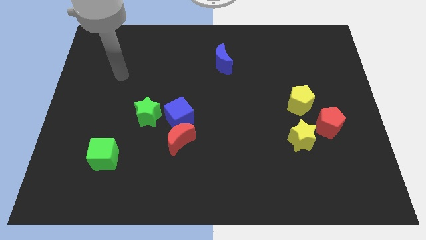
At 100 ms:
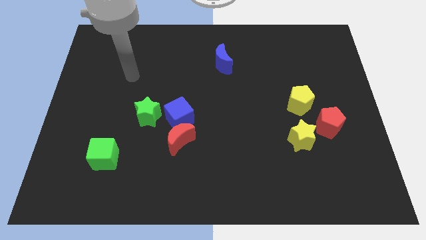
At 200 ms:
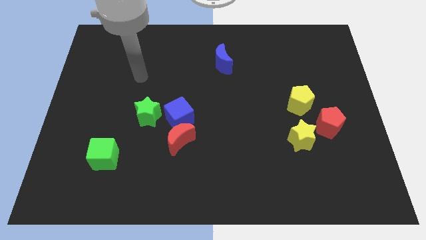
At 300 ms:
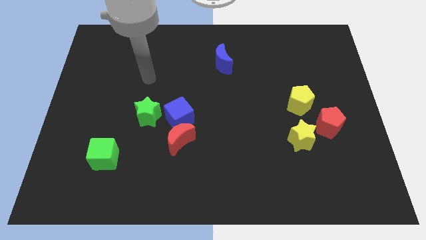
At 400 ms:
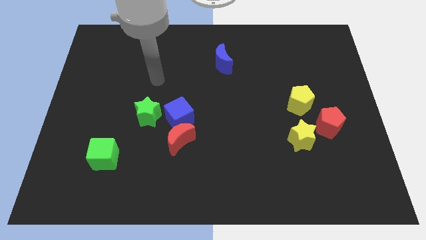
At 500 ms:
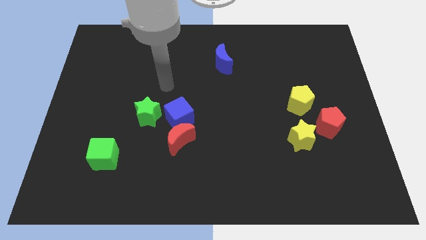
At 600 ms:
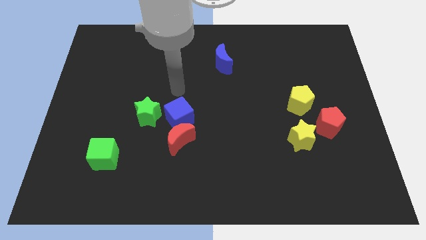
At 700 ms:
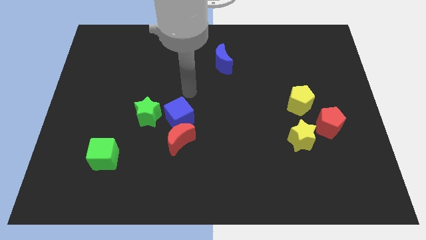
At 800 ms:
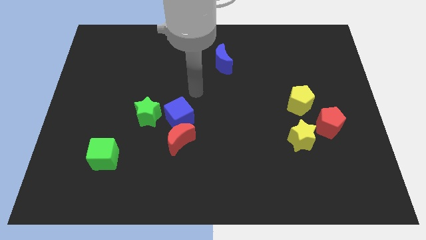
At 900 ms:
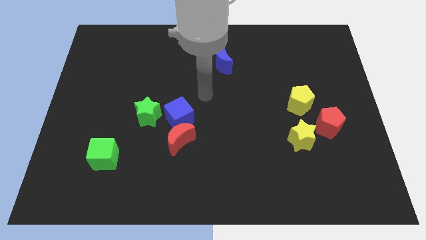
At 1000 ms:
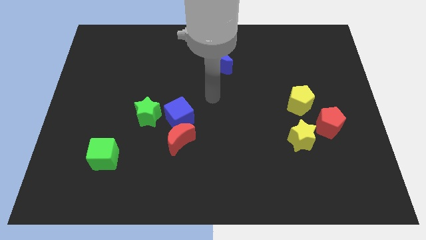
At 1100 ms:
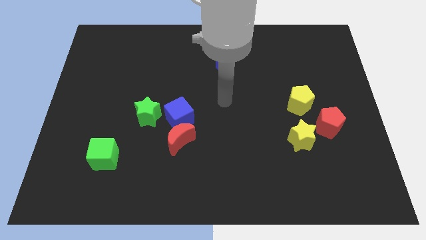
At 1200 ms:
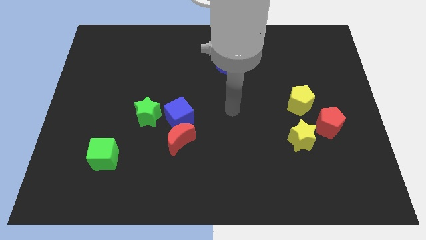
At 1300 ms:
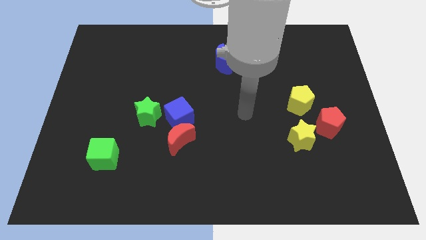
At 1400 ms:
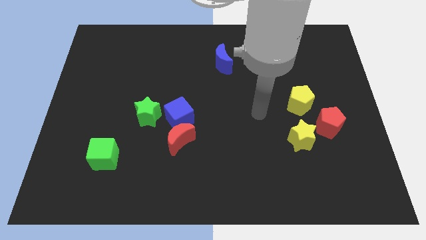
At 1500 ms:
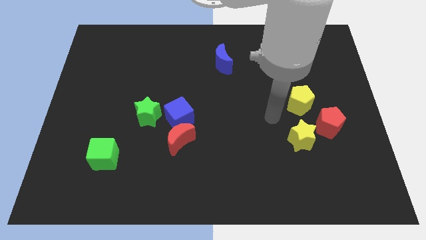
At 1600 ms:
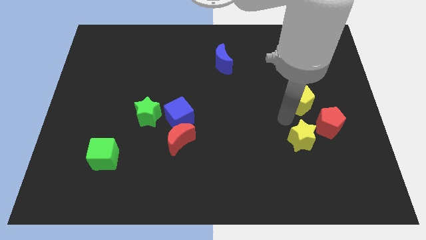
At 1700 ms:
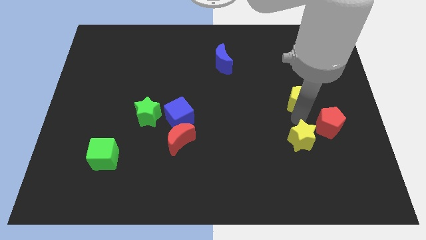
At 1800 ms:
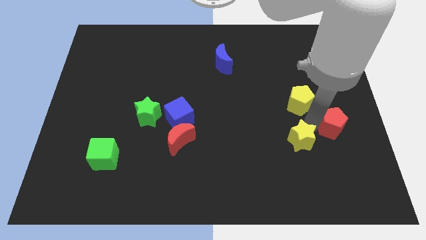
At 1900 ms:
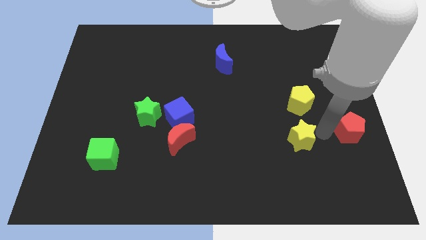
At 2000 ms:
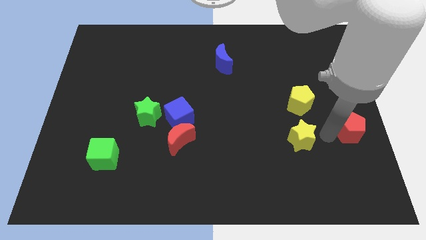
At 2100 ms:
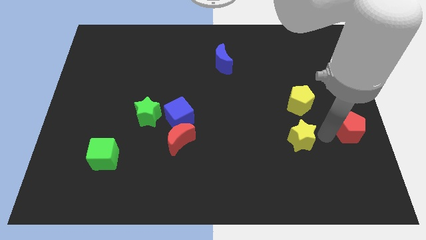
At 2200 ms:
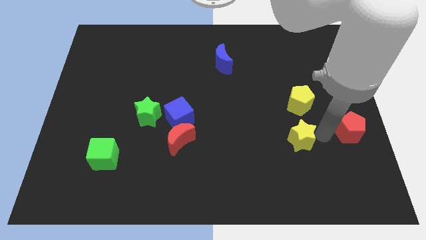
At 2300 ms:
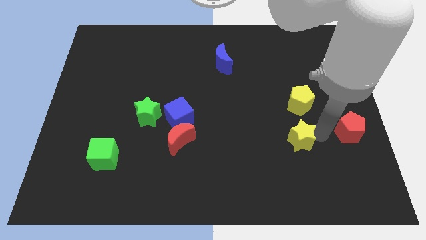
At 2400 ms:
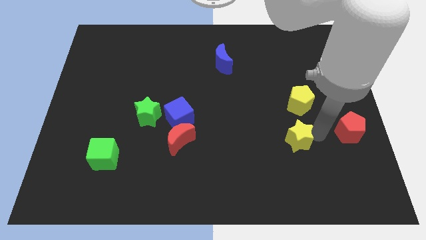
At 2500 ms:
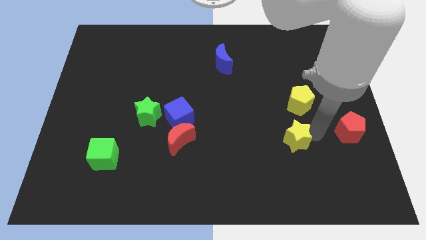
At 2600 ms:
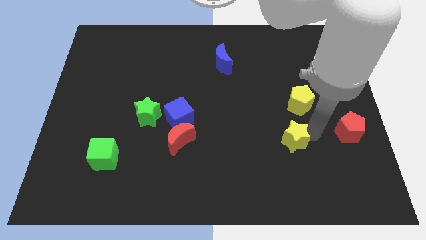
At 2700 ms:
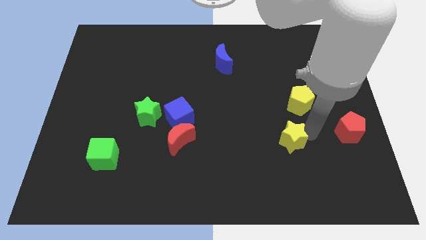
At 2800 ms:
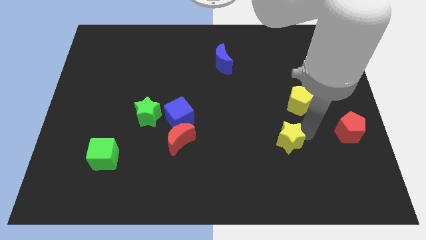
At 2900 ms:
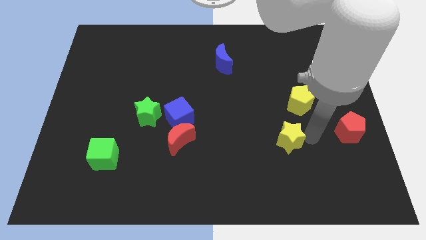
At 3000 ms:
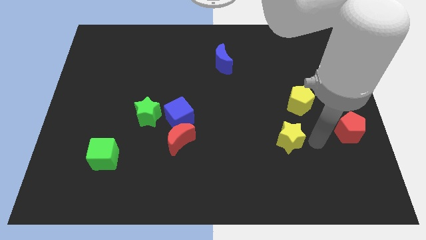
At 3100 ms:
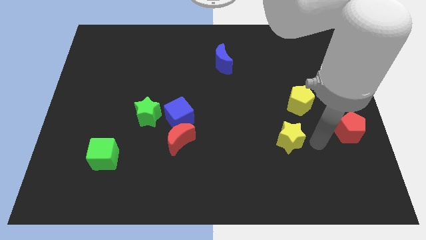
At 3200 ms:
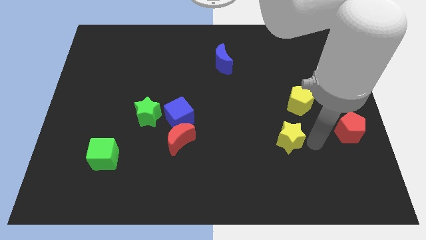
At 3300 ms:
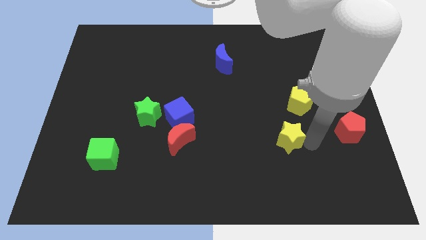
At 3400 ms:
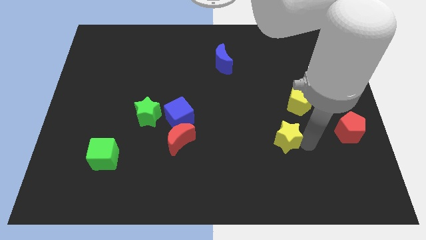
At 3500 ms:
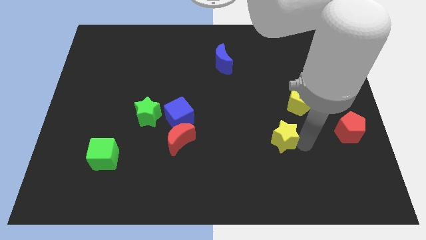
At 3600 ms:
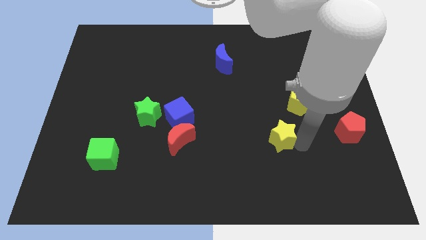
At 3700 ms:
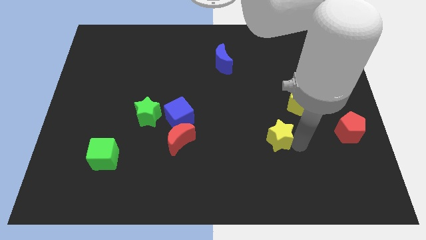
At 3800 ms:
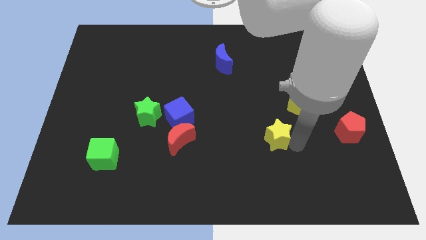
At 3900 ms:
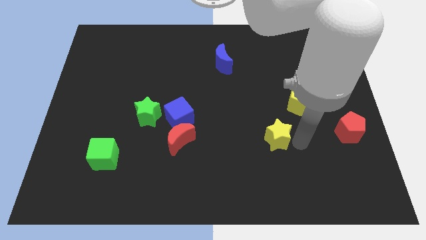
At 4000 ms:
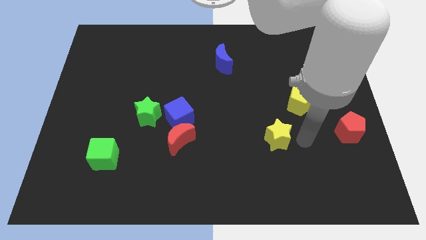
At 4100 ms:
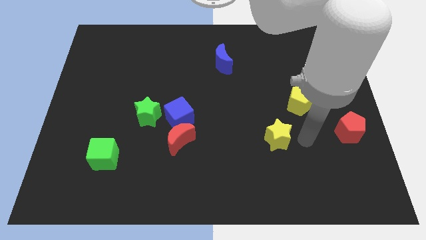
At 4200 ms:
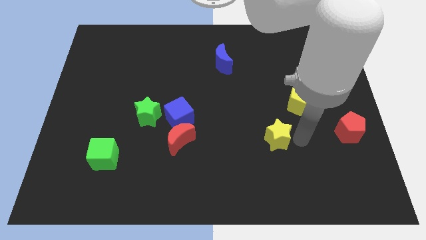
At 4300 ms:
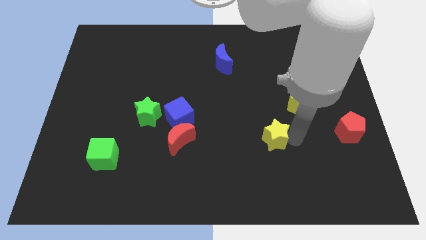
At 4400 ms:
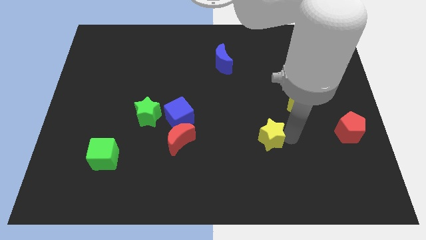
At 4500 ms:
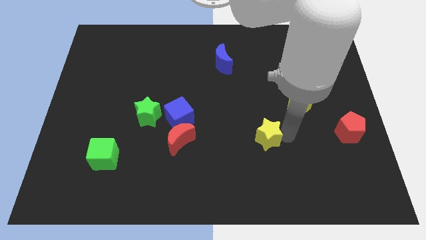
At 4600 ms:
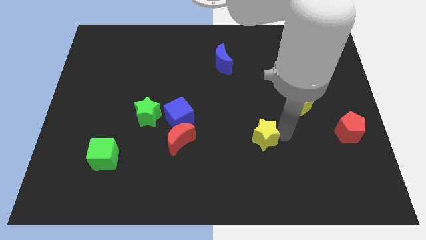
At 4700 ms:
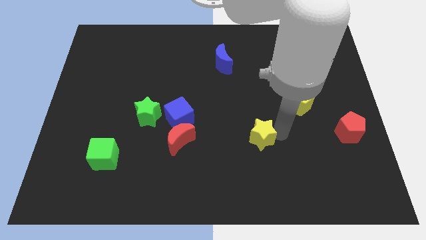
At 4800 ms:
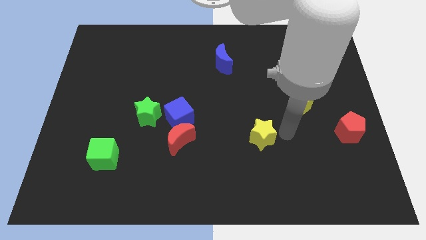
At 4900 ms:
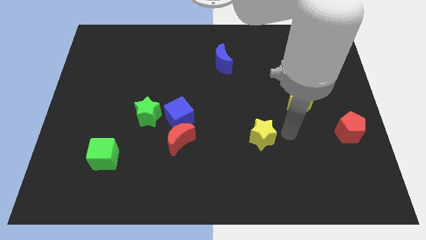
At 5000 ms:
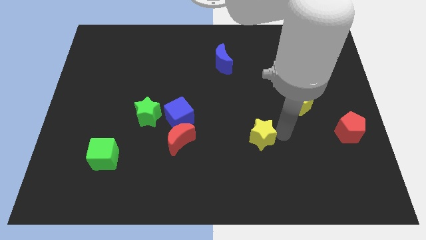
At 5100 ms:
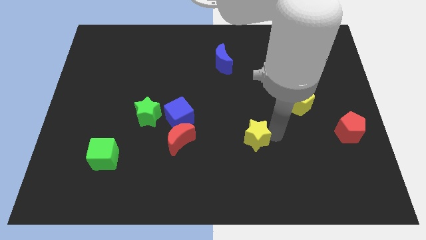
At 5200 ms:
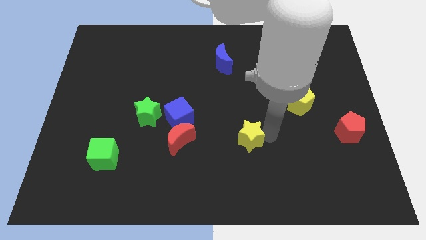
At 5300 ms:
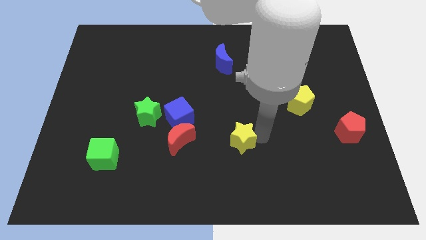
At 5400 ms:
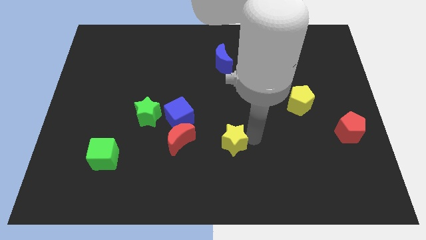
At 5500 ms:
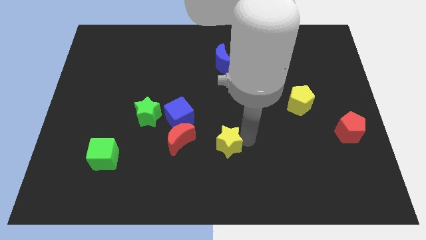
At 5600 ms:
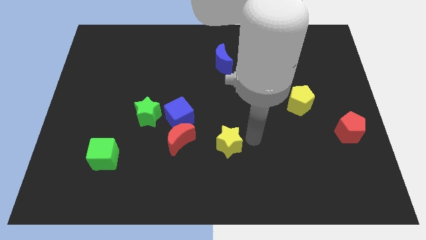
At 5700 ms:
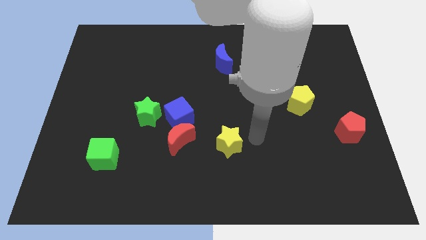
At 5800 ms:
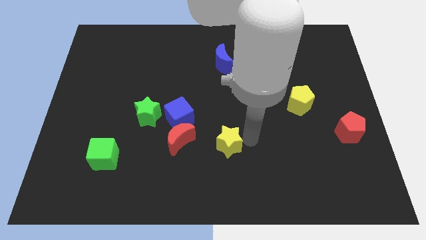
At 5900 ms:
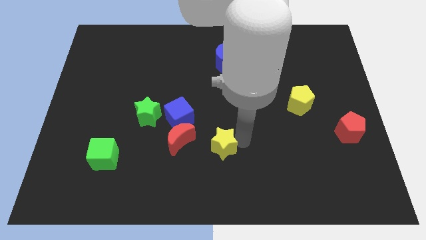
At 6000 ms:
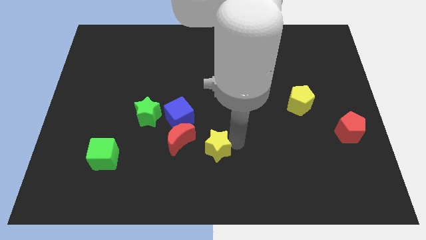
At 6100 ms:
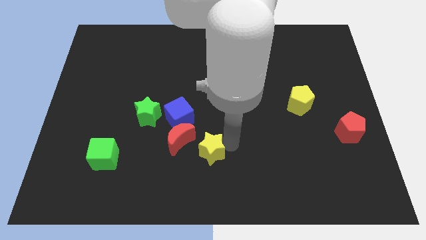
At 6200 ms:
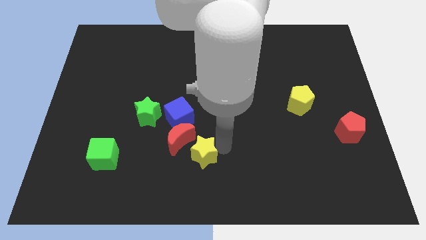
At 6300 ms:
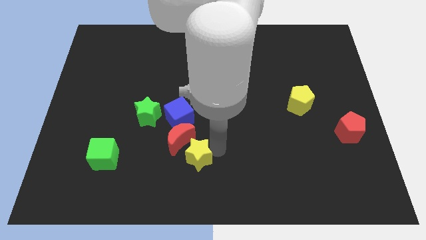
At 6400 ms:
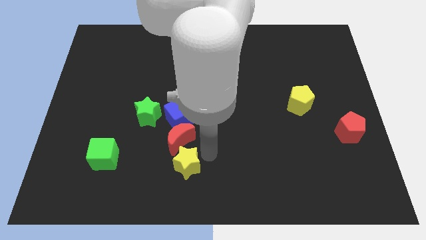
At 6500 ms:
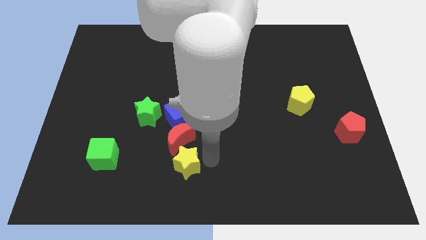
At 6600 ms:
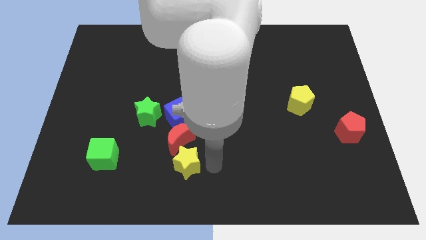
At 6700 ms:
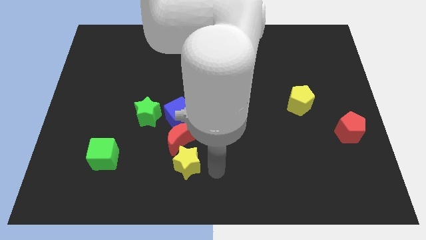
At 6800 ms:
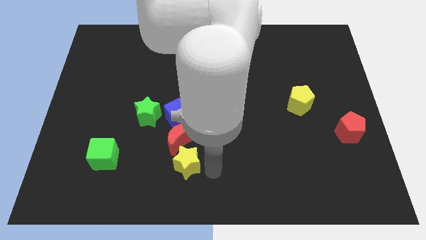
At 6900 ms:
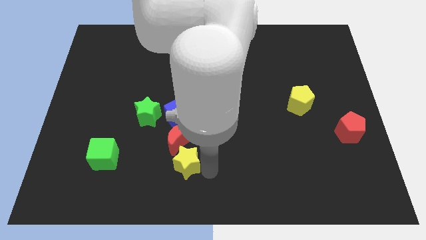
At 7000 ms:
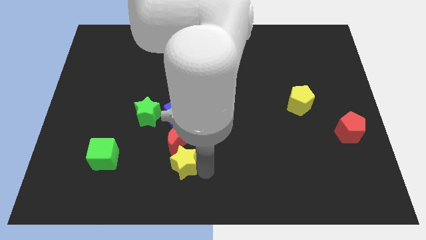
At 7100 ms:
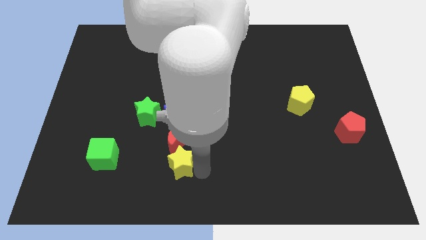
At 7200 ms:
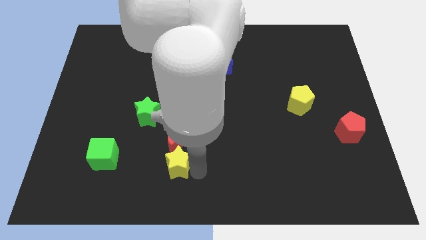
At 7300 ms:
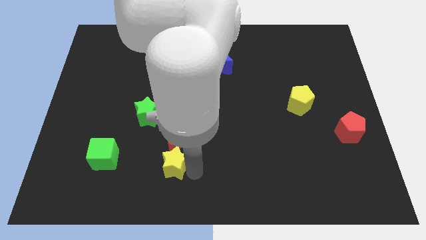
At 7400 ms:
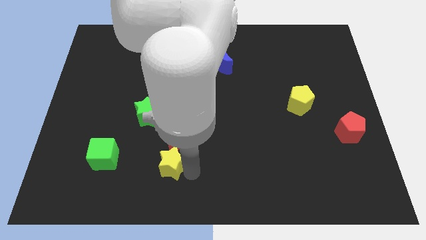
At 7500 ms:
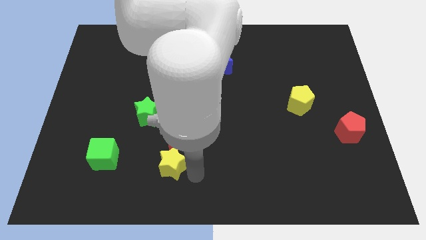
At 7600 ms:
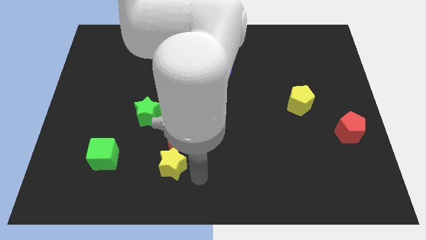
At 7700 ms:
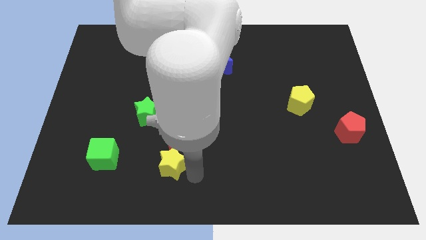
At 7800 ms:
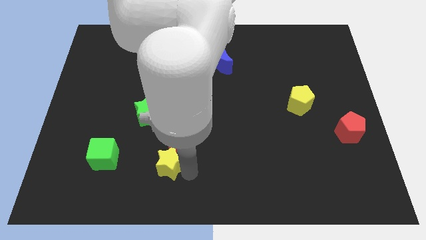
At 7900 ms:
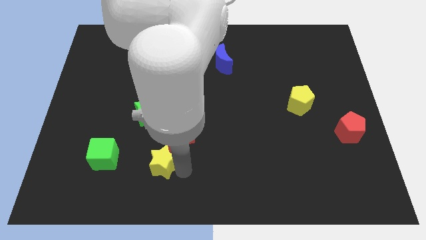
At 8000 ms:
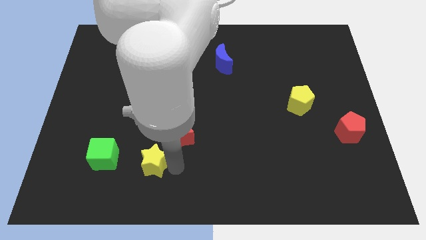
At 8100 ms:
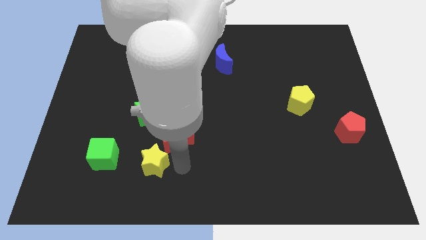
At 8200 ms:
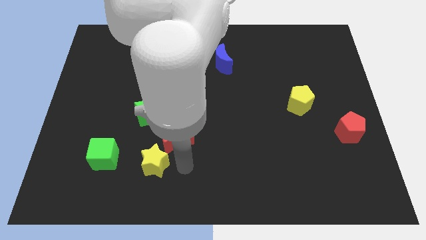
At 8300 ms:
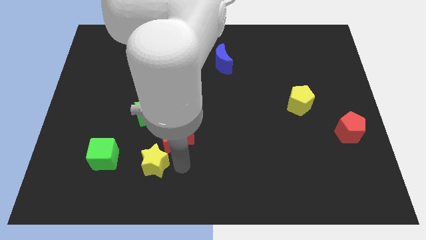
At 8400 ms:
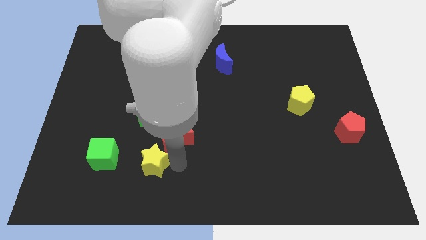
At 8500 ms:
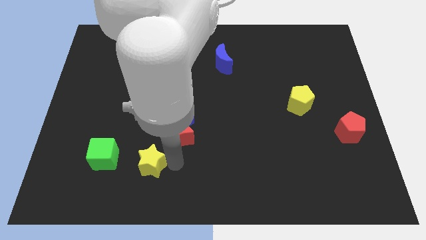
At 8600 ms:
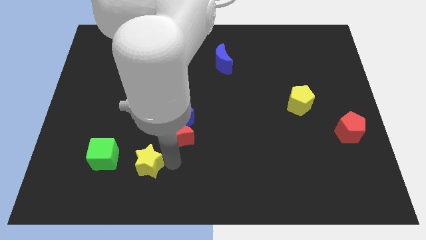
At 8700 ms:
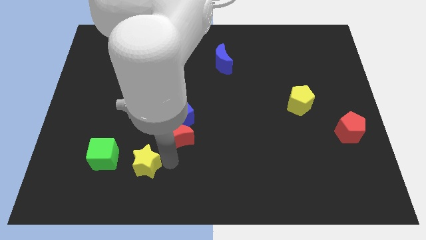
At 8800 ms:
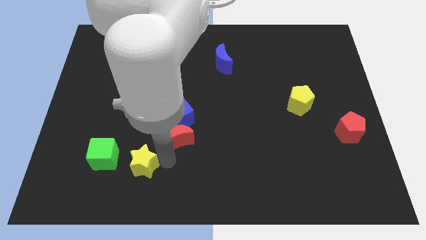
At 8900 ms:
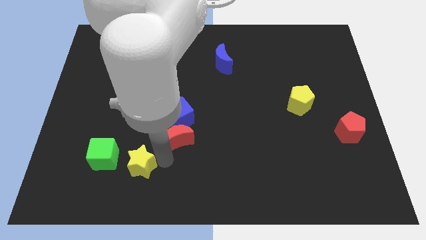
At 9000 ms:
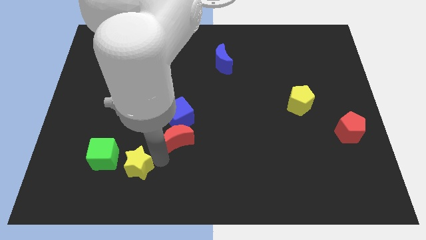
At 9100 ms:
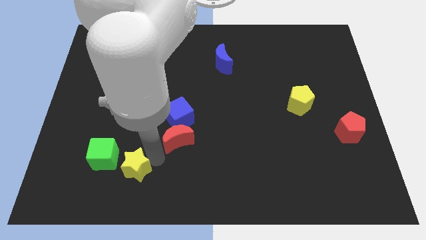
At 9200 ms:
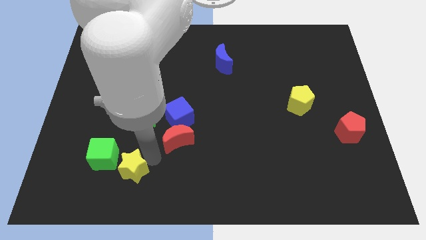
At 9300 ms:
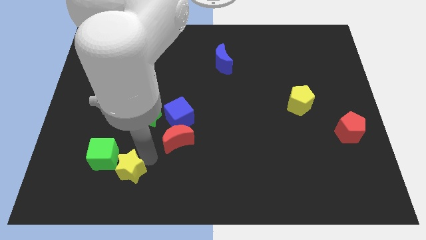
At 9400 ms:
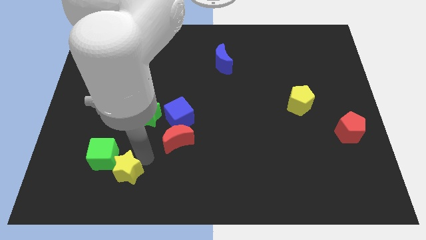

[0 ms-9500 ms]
push the yellow star towards the green cube
